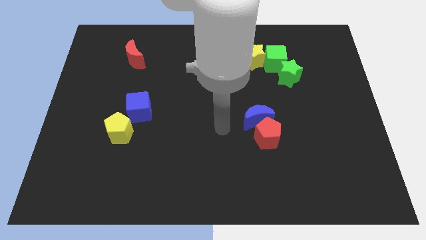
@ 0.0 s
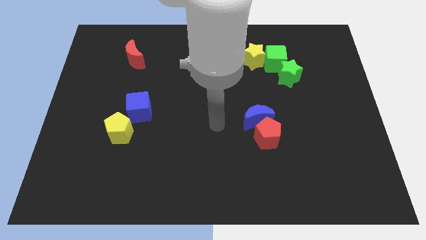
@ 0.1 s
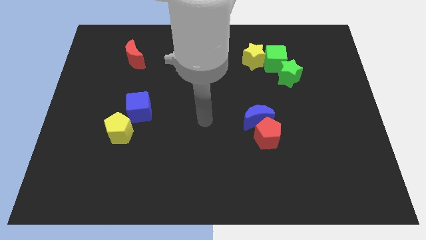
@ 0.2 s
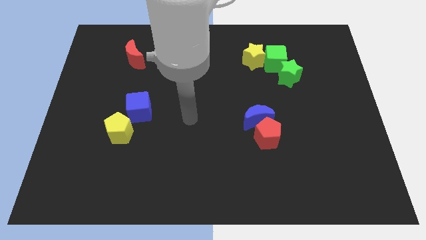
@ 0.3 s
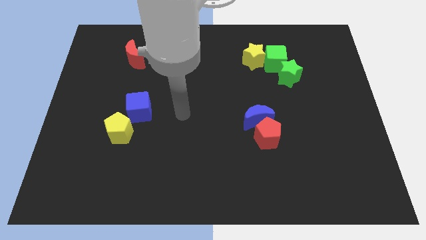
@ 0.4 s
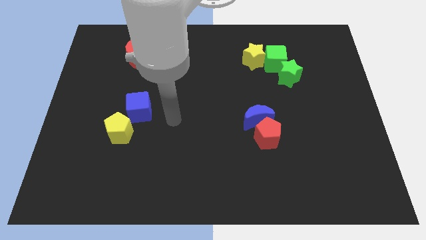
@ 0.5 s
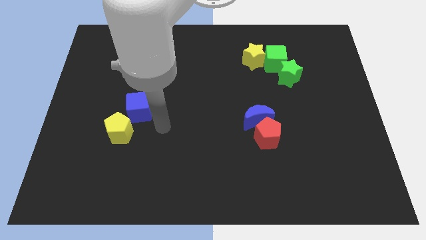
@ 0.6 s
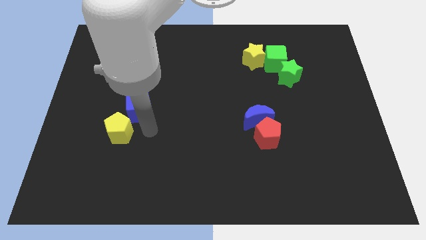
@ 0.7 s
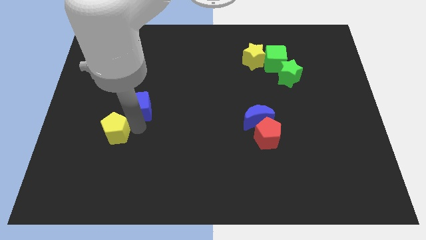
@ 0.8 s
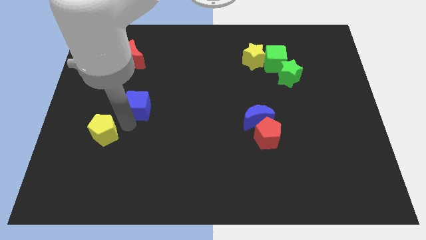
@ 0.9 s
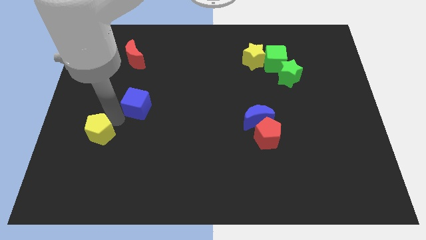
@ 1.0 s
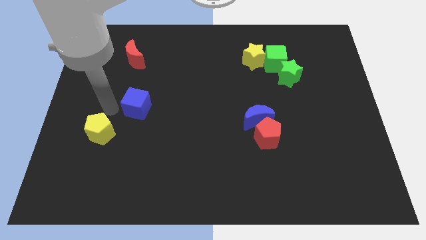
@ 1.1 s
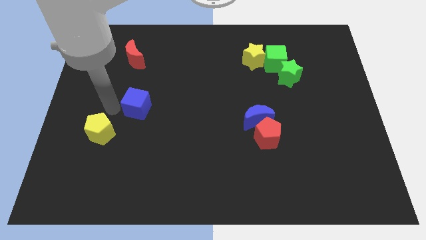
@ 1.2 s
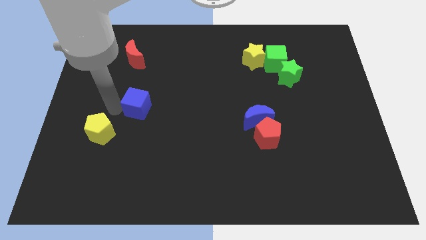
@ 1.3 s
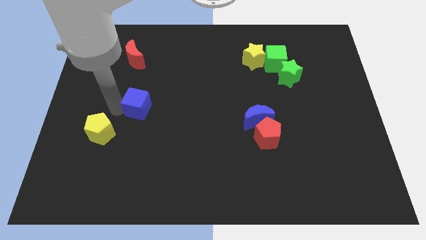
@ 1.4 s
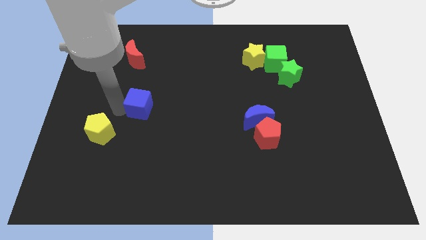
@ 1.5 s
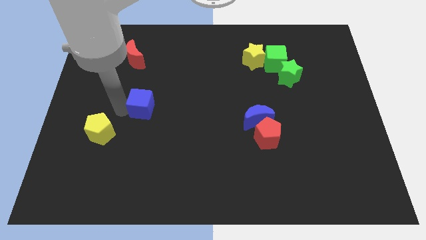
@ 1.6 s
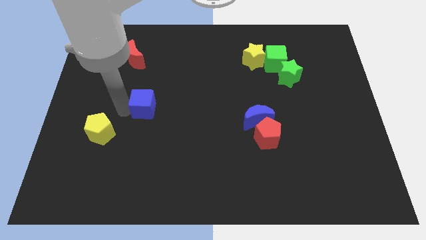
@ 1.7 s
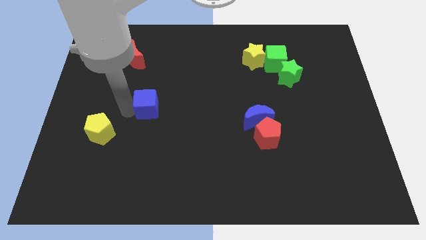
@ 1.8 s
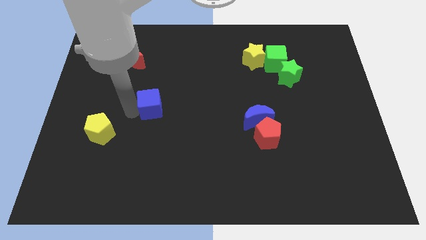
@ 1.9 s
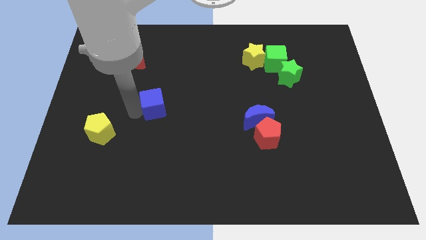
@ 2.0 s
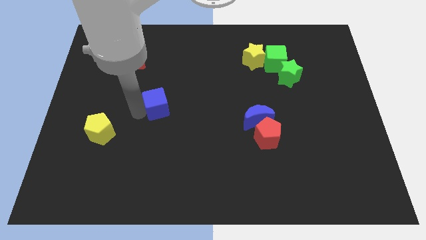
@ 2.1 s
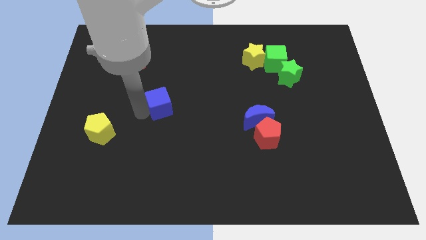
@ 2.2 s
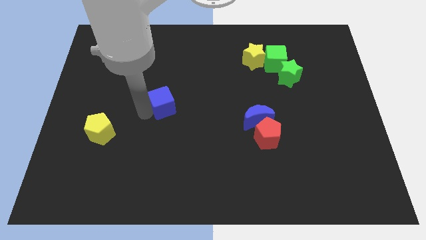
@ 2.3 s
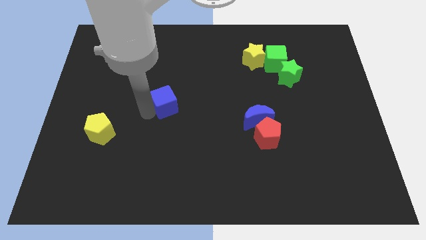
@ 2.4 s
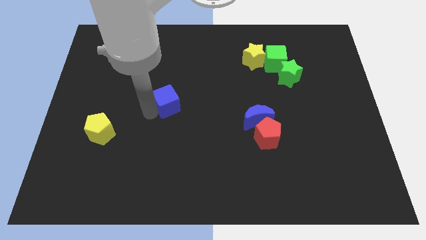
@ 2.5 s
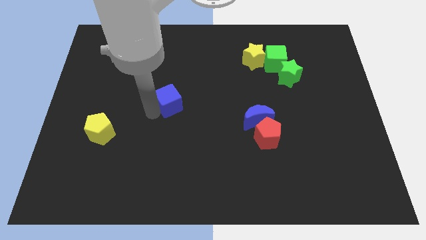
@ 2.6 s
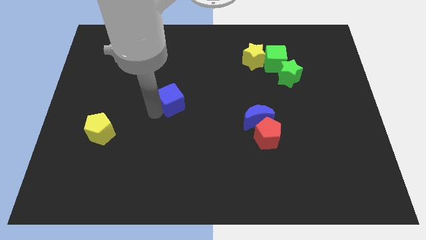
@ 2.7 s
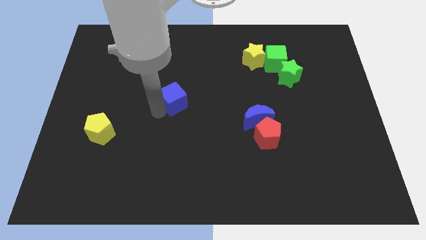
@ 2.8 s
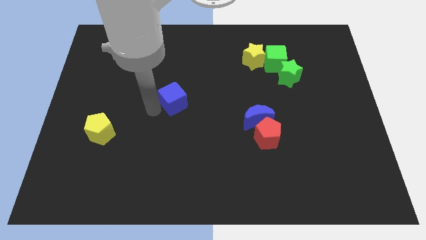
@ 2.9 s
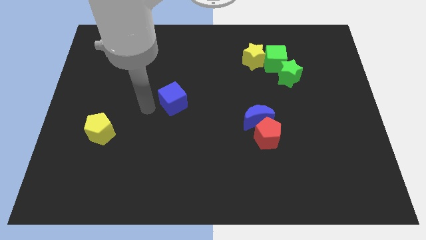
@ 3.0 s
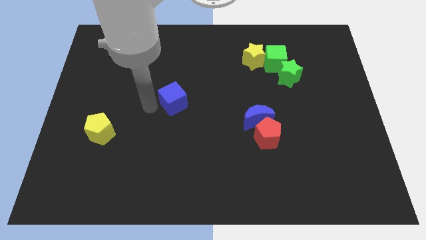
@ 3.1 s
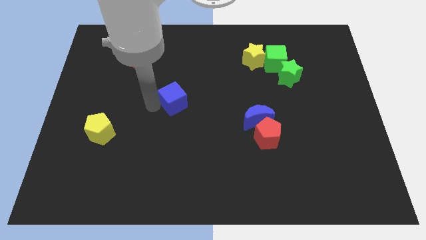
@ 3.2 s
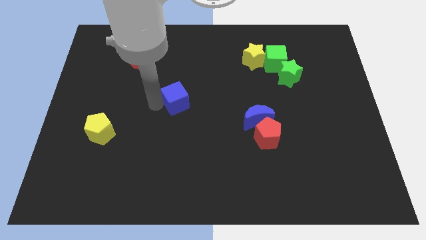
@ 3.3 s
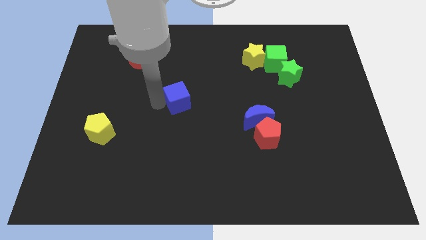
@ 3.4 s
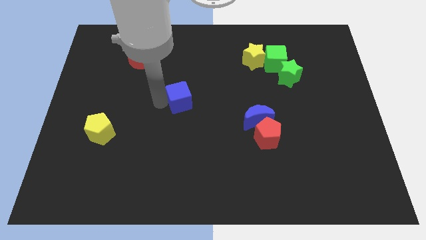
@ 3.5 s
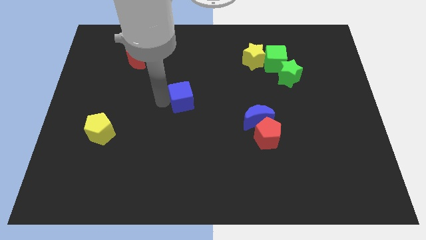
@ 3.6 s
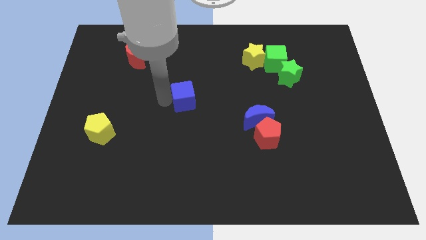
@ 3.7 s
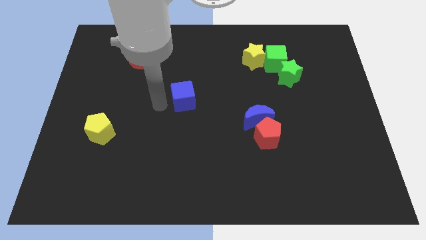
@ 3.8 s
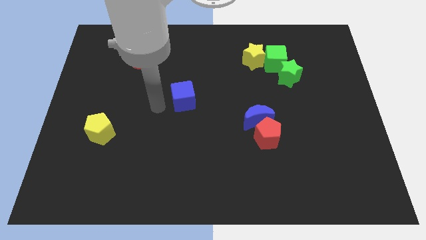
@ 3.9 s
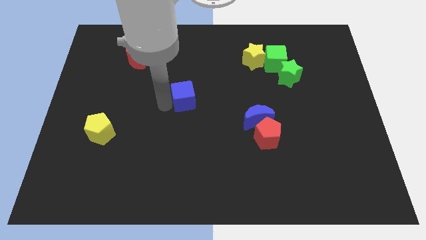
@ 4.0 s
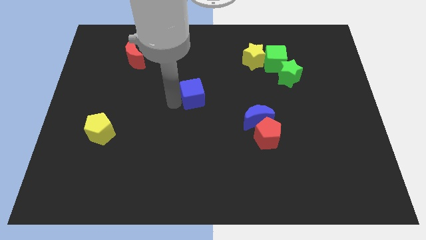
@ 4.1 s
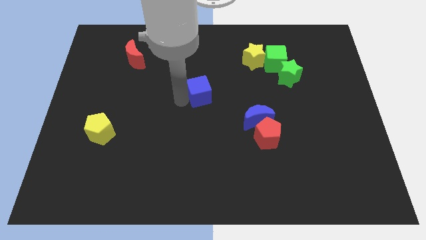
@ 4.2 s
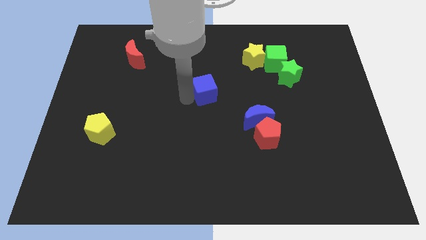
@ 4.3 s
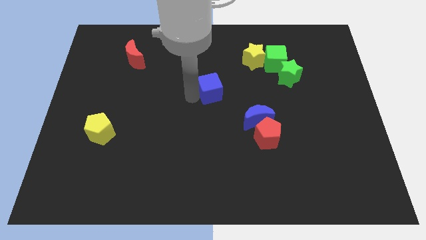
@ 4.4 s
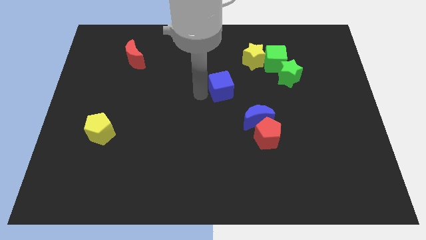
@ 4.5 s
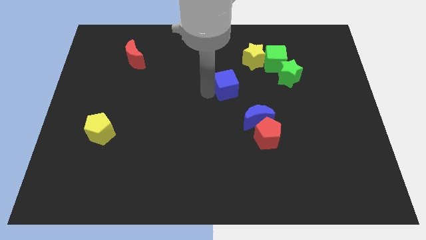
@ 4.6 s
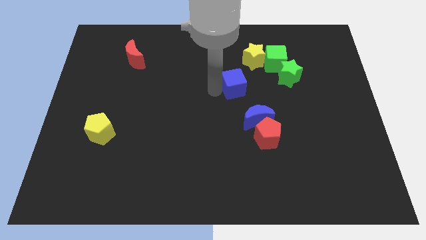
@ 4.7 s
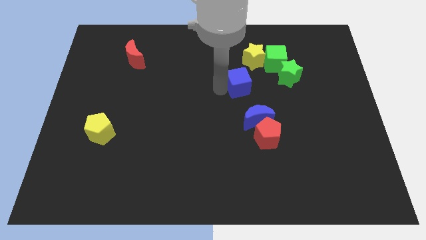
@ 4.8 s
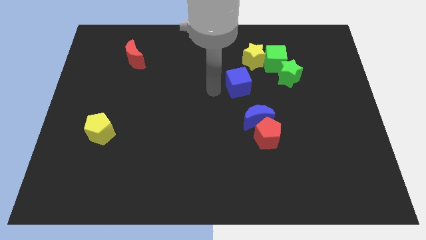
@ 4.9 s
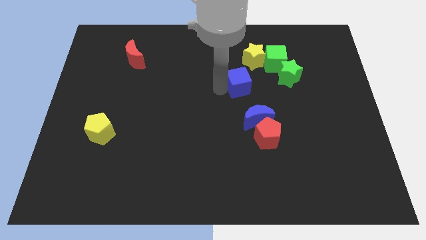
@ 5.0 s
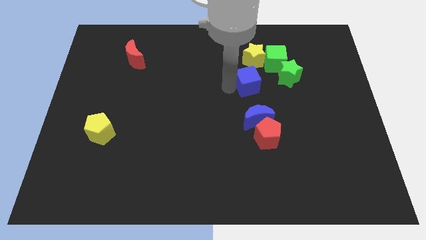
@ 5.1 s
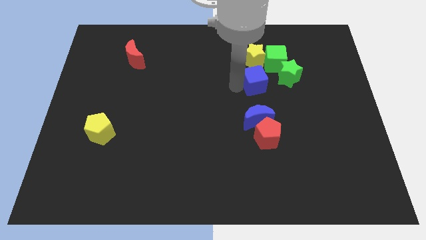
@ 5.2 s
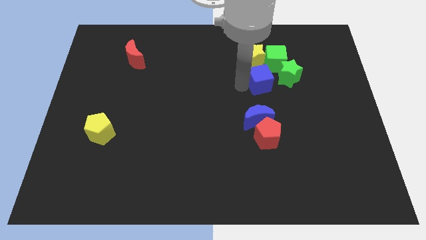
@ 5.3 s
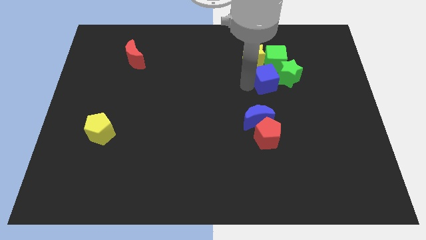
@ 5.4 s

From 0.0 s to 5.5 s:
push the blue cube close to the green star

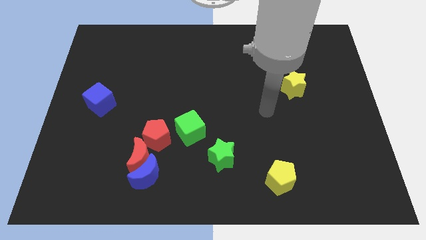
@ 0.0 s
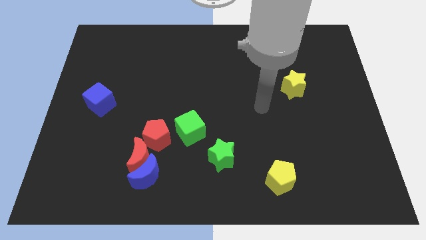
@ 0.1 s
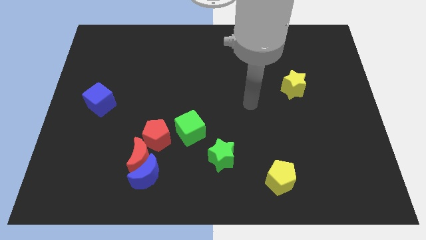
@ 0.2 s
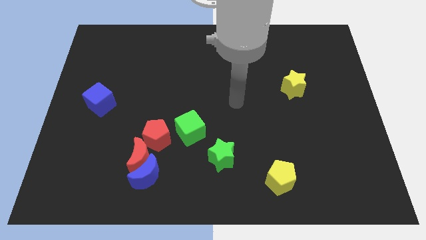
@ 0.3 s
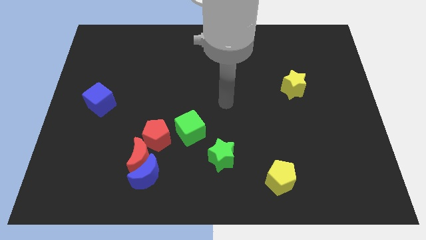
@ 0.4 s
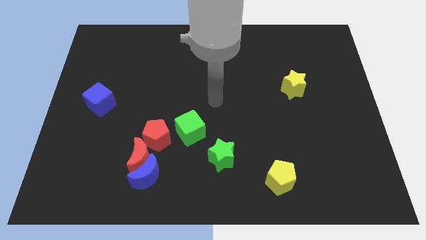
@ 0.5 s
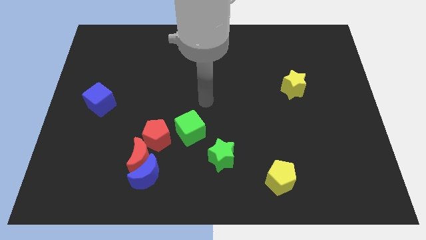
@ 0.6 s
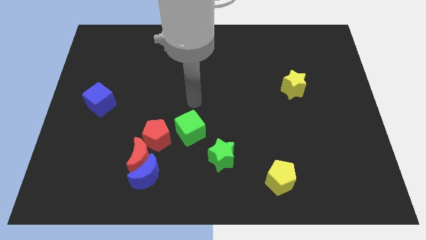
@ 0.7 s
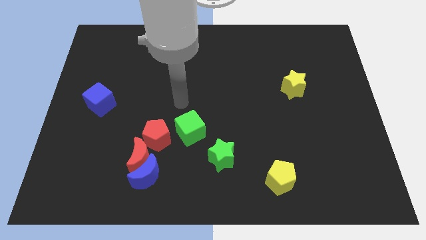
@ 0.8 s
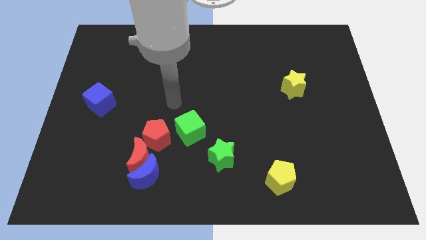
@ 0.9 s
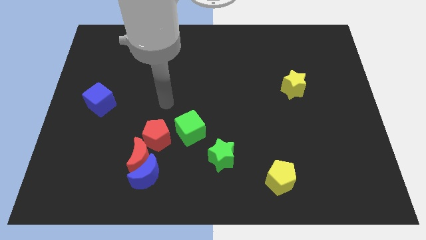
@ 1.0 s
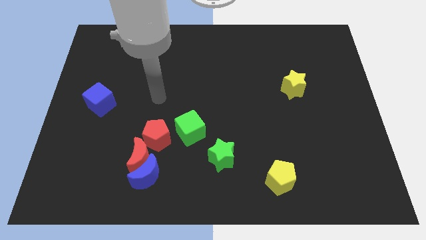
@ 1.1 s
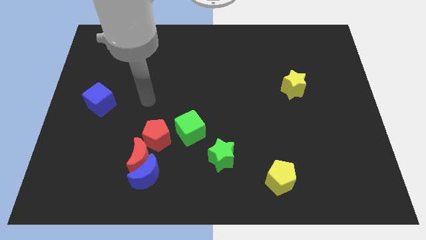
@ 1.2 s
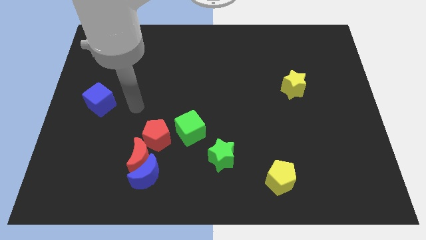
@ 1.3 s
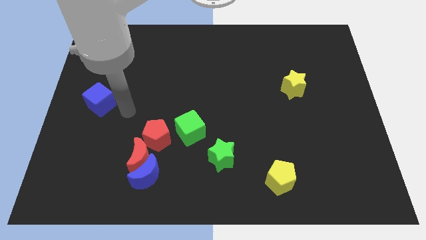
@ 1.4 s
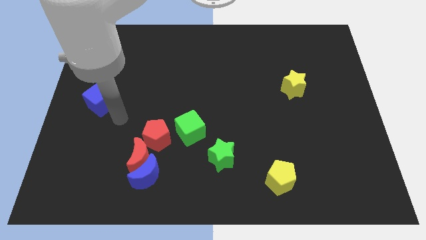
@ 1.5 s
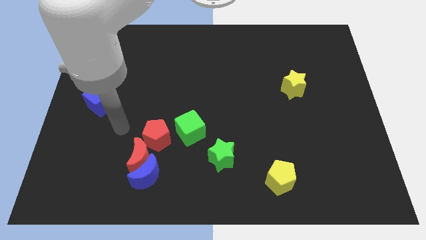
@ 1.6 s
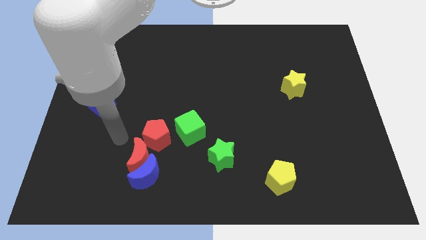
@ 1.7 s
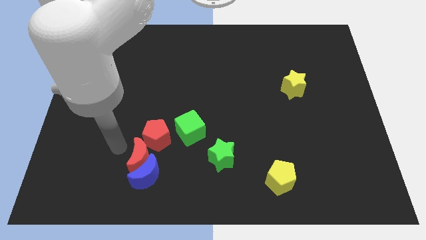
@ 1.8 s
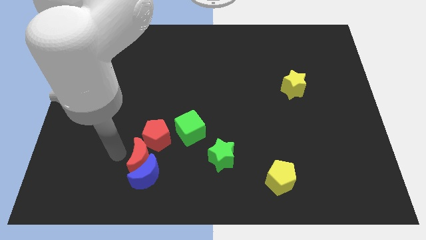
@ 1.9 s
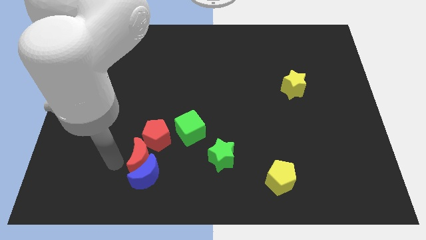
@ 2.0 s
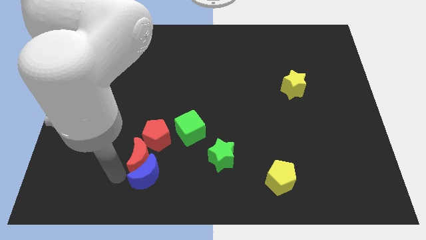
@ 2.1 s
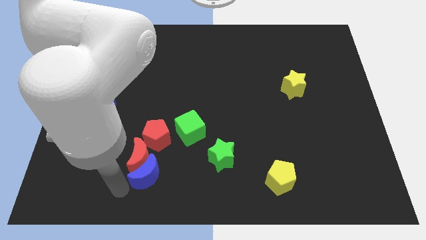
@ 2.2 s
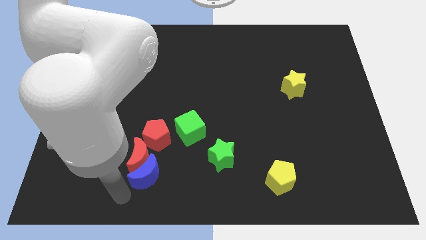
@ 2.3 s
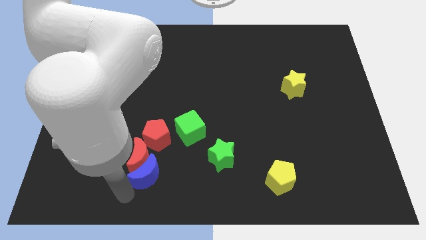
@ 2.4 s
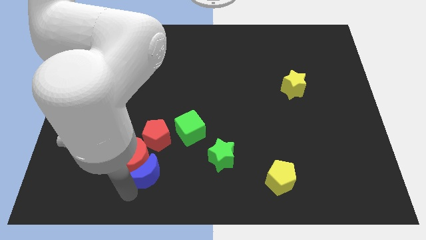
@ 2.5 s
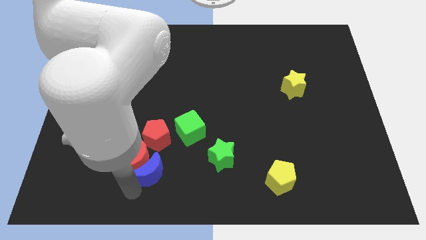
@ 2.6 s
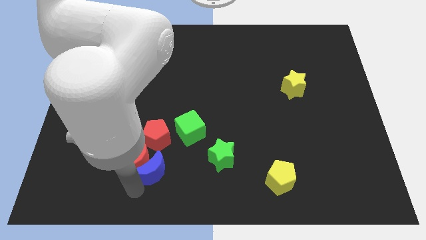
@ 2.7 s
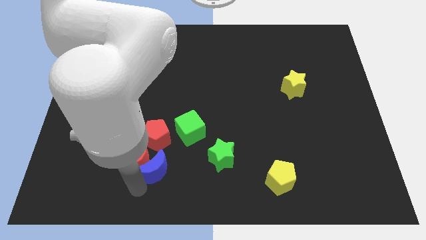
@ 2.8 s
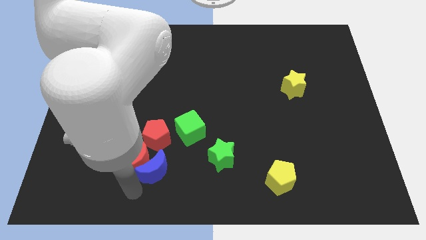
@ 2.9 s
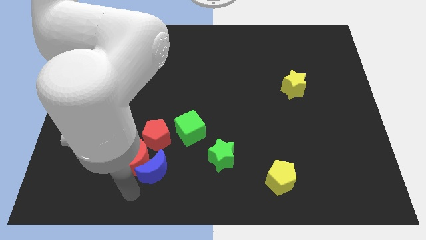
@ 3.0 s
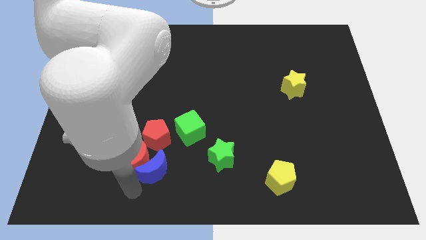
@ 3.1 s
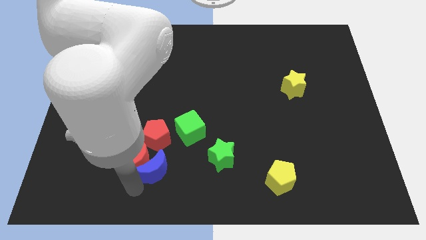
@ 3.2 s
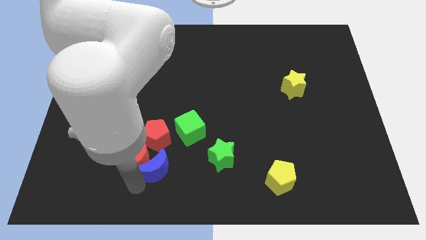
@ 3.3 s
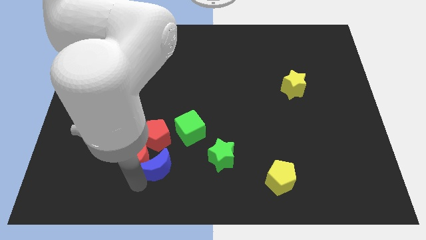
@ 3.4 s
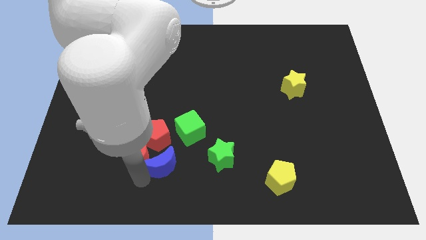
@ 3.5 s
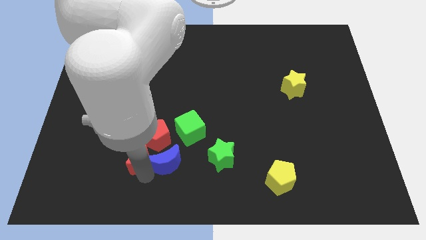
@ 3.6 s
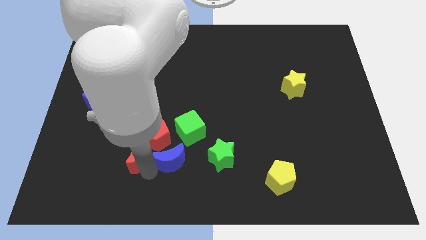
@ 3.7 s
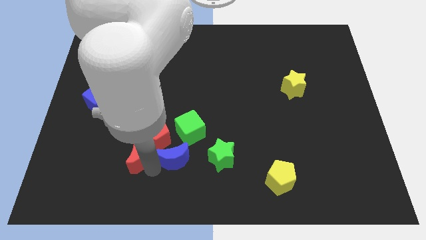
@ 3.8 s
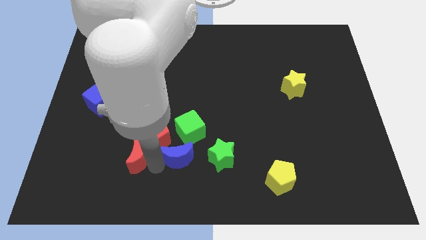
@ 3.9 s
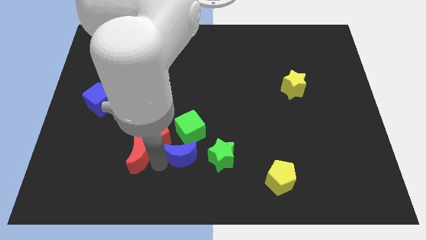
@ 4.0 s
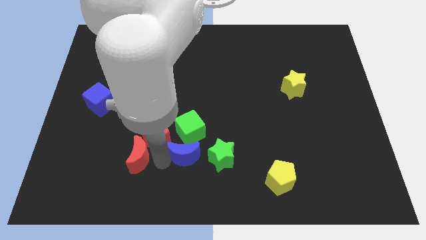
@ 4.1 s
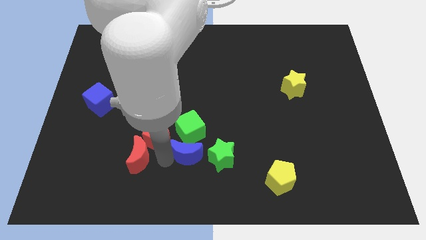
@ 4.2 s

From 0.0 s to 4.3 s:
slide the blue moon next to the green cube
